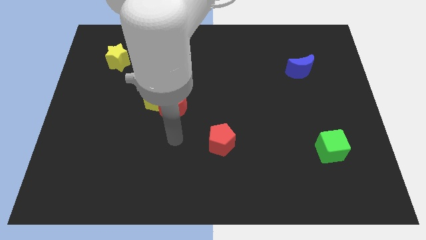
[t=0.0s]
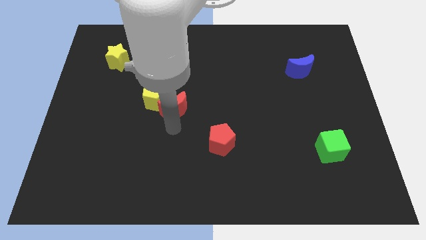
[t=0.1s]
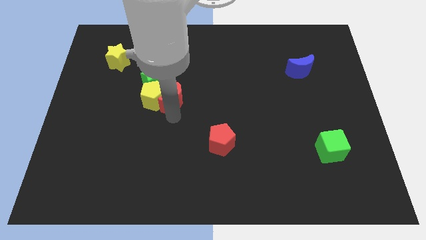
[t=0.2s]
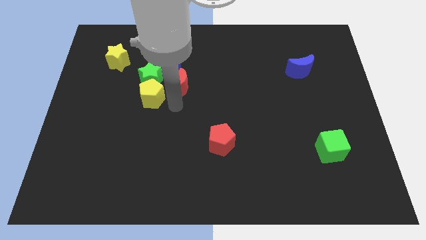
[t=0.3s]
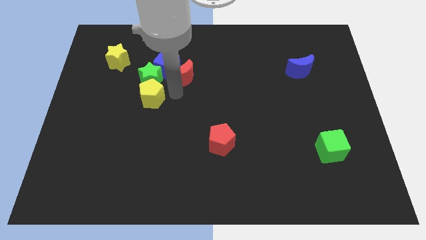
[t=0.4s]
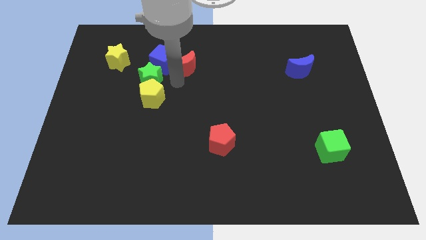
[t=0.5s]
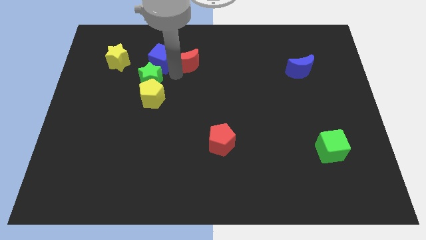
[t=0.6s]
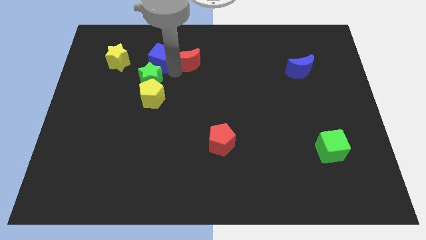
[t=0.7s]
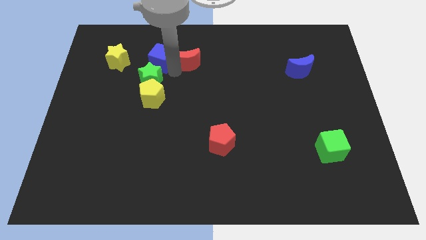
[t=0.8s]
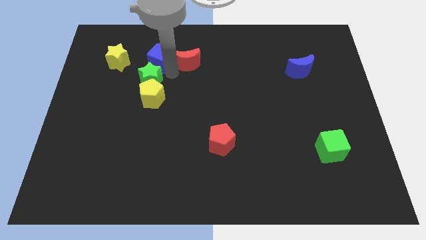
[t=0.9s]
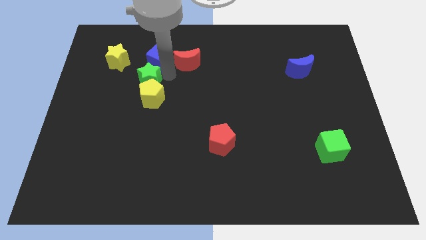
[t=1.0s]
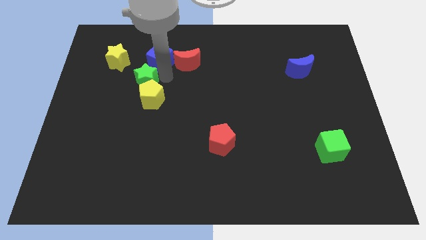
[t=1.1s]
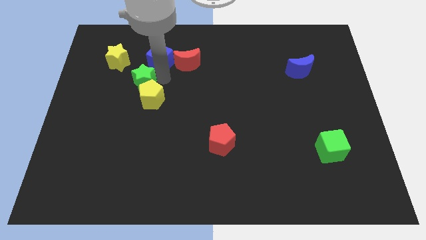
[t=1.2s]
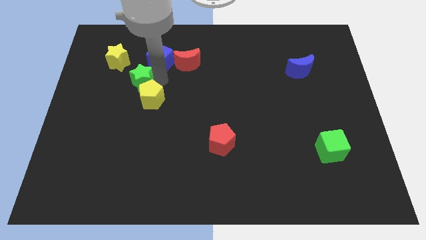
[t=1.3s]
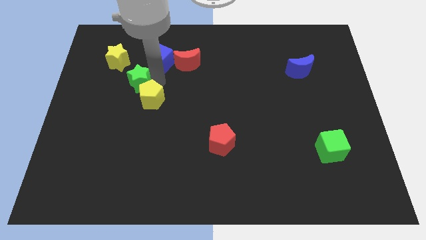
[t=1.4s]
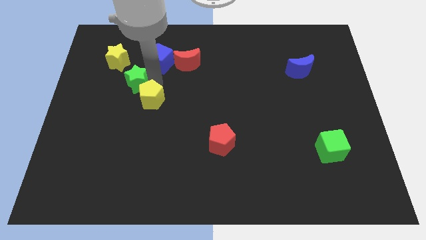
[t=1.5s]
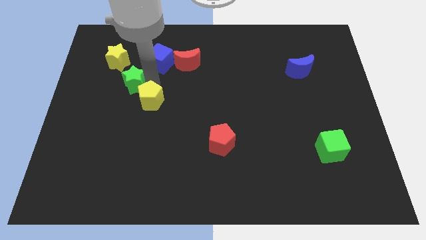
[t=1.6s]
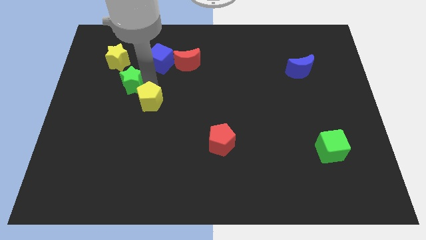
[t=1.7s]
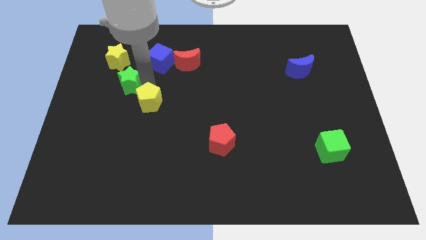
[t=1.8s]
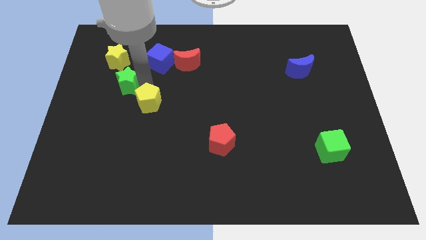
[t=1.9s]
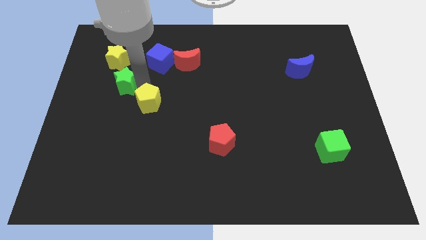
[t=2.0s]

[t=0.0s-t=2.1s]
pull the green star apart from the yellow pentagon, blue cube, and red moon

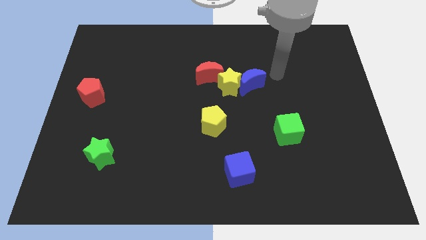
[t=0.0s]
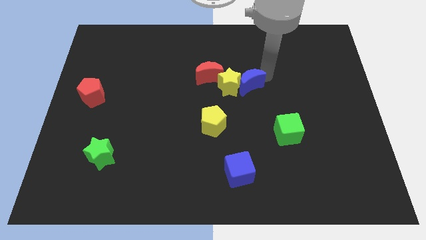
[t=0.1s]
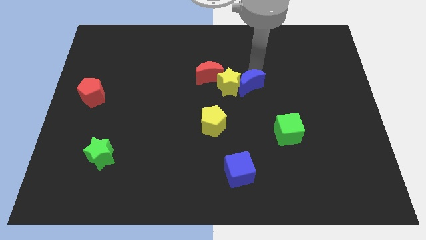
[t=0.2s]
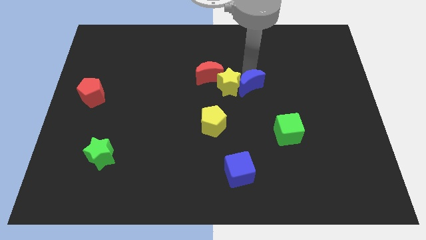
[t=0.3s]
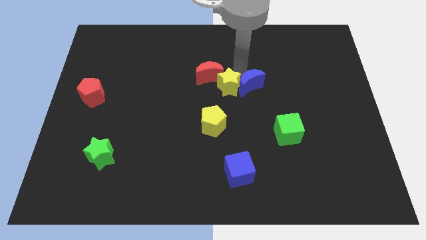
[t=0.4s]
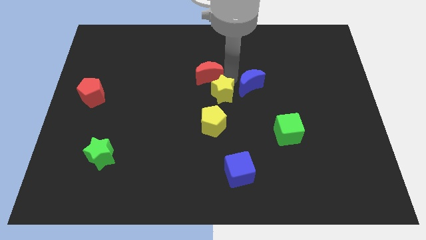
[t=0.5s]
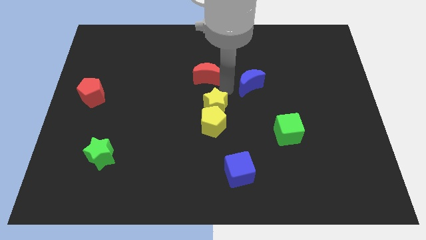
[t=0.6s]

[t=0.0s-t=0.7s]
move the blue moon away from the yellow star

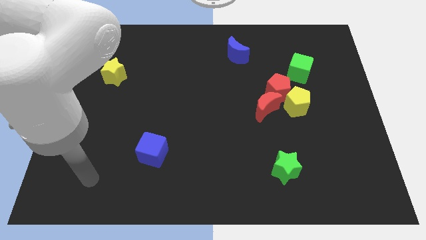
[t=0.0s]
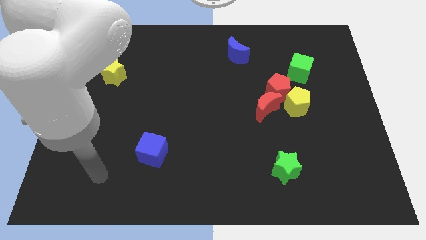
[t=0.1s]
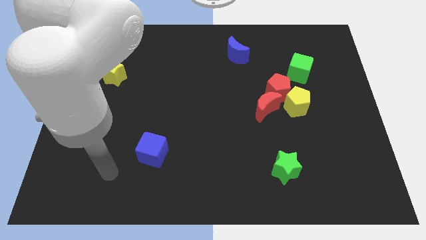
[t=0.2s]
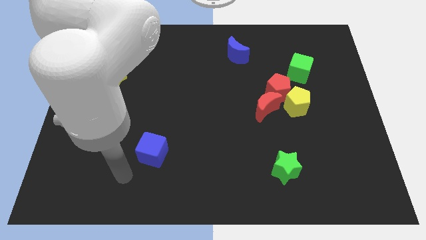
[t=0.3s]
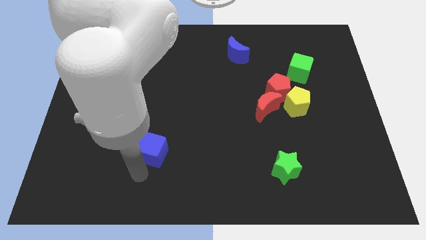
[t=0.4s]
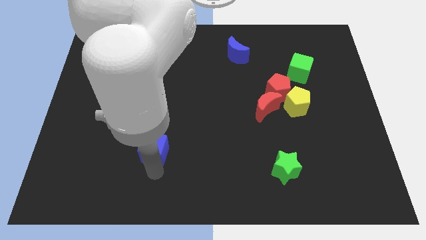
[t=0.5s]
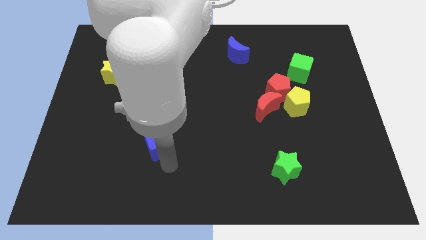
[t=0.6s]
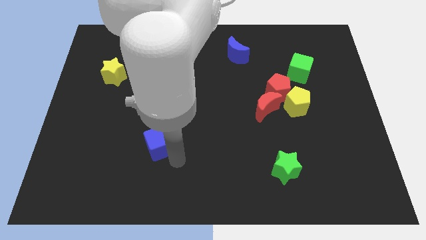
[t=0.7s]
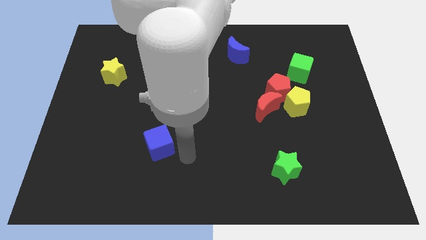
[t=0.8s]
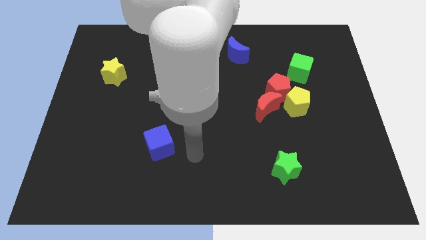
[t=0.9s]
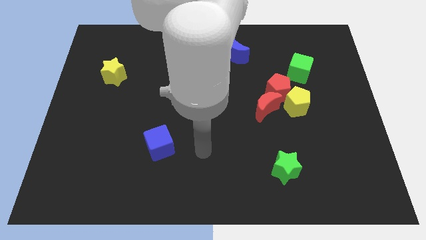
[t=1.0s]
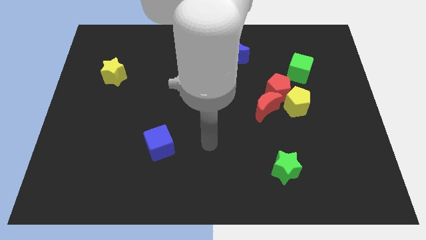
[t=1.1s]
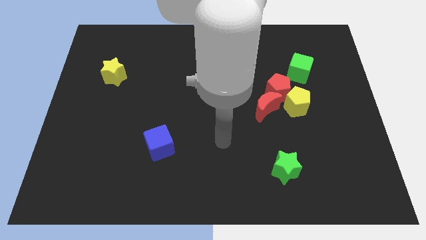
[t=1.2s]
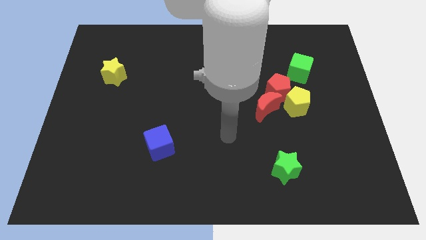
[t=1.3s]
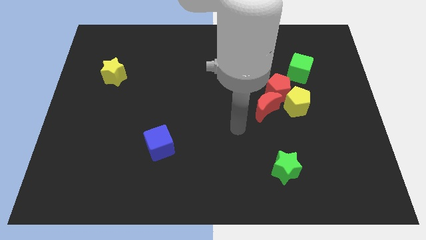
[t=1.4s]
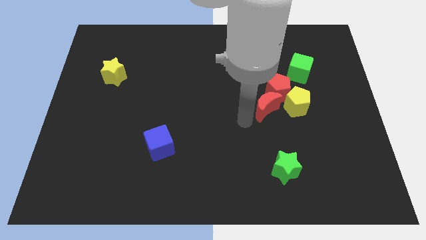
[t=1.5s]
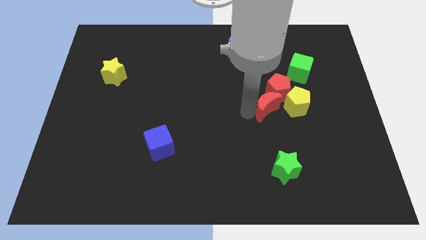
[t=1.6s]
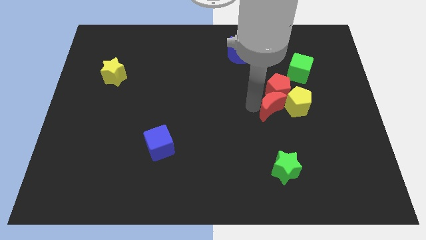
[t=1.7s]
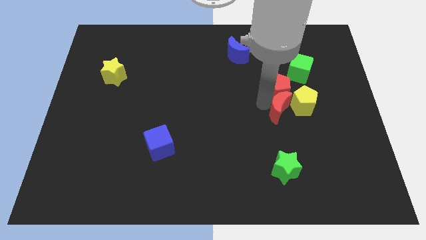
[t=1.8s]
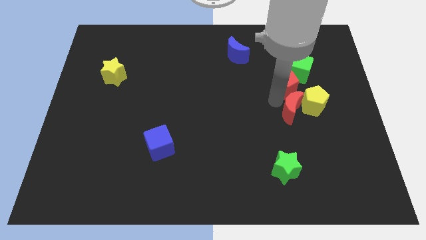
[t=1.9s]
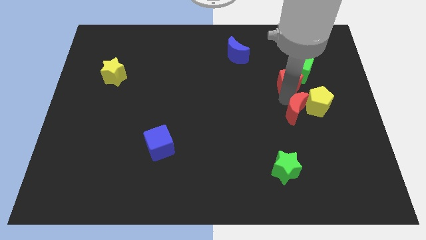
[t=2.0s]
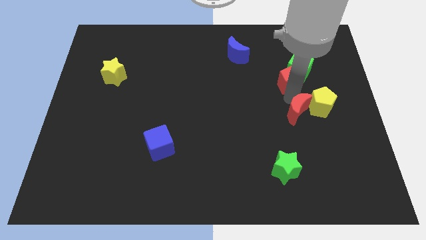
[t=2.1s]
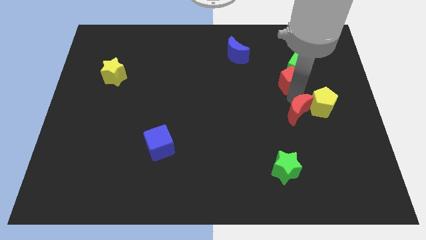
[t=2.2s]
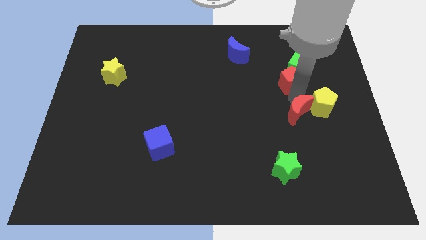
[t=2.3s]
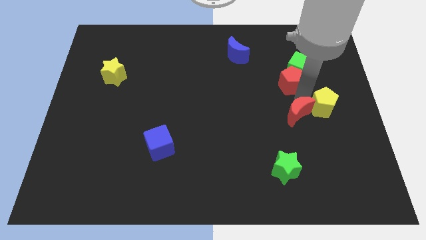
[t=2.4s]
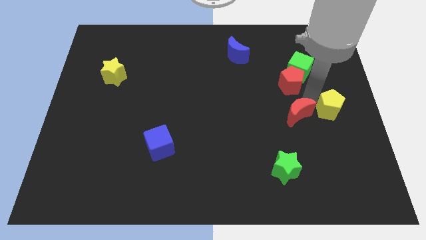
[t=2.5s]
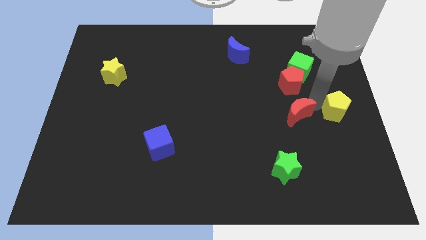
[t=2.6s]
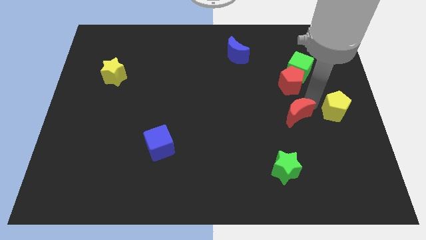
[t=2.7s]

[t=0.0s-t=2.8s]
separate the yellow pentagon from the red pentagon and red moon

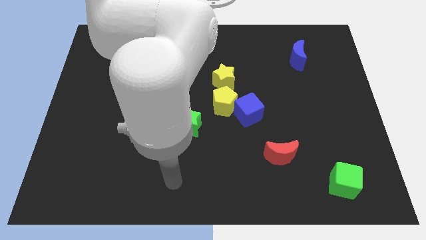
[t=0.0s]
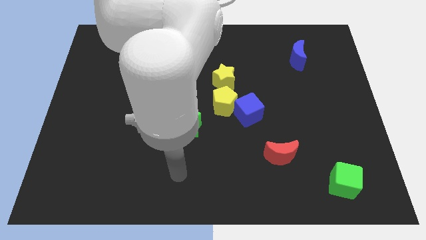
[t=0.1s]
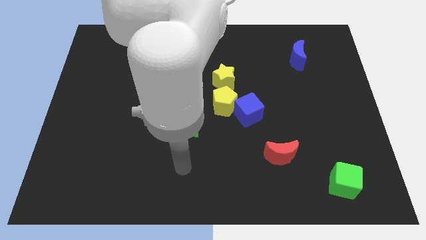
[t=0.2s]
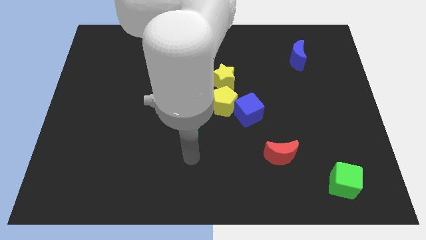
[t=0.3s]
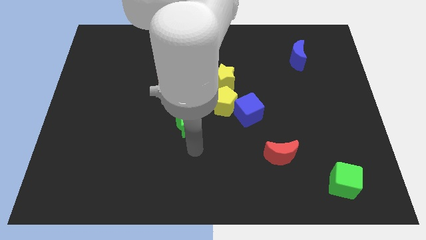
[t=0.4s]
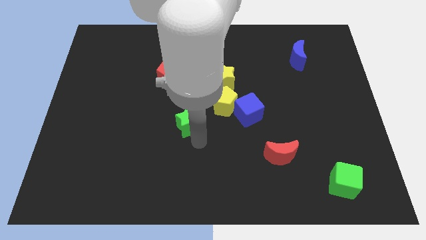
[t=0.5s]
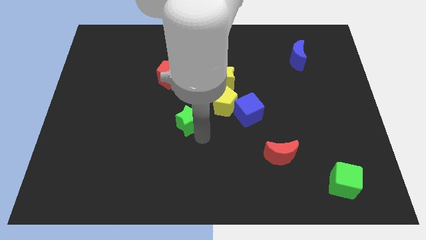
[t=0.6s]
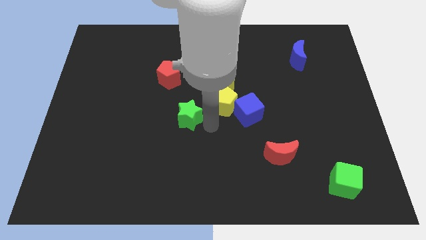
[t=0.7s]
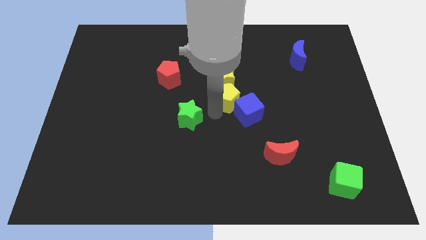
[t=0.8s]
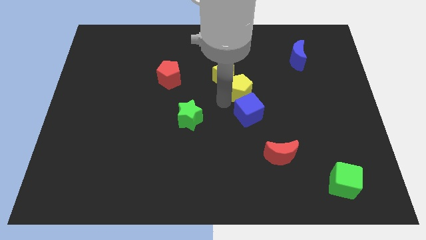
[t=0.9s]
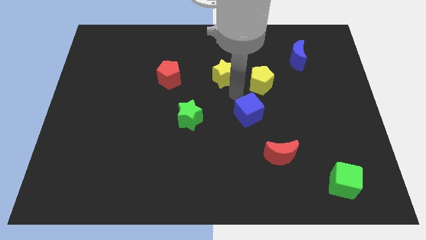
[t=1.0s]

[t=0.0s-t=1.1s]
separate the blue cube from the yellow pentagon

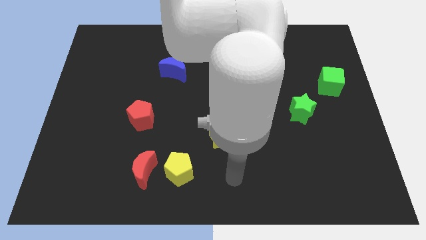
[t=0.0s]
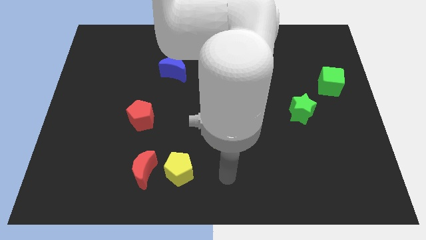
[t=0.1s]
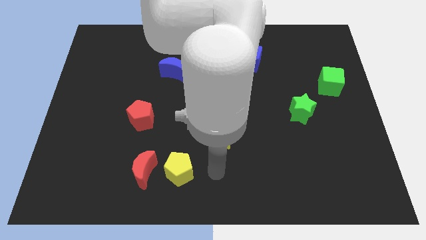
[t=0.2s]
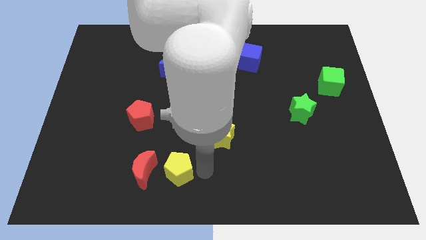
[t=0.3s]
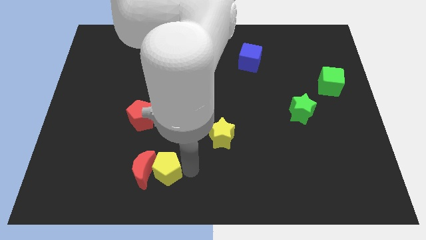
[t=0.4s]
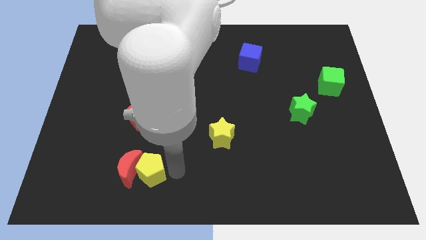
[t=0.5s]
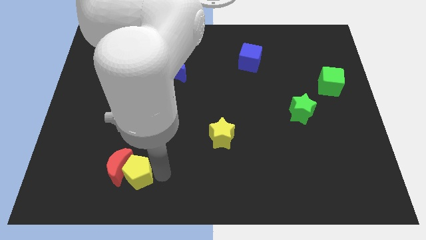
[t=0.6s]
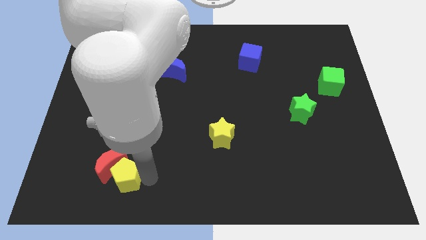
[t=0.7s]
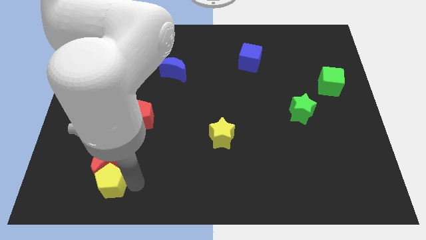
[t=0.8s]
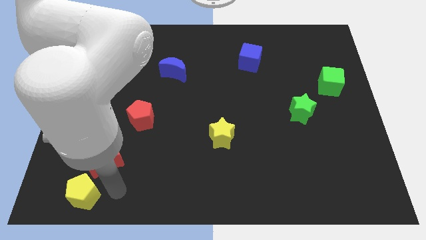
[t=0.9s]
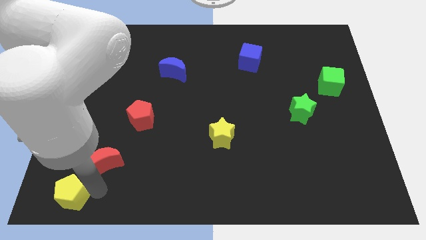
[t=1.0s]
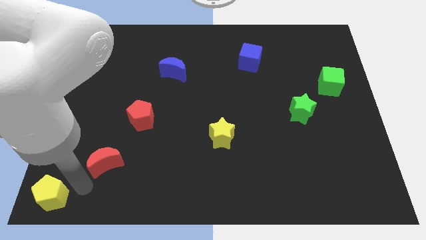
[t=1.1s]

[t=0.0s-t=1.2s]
separate the red moon from the yellow pentagon

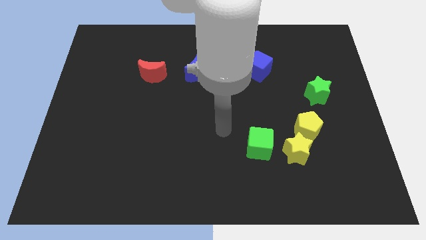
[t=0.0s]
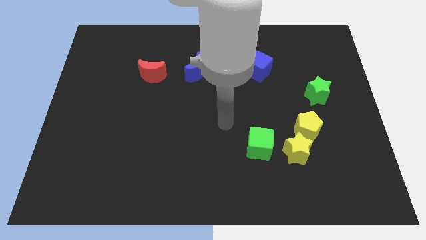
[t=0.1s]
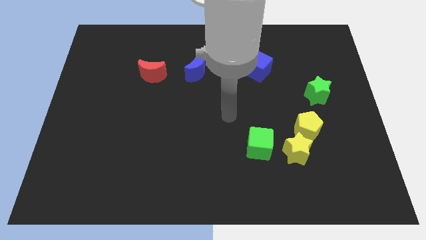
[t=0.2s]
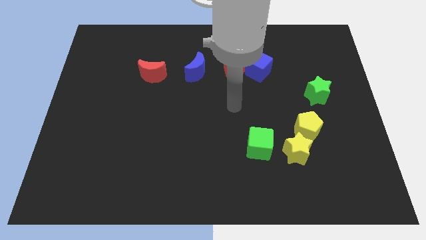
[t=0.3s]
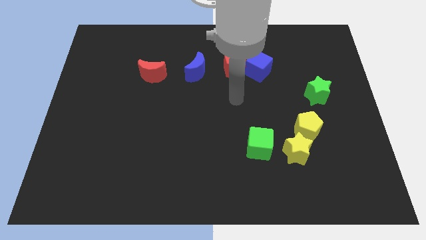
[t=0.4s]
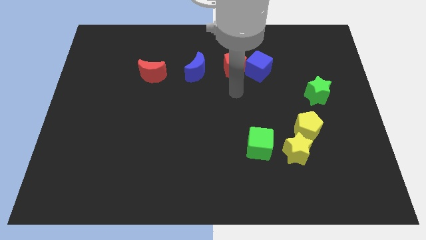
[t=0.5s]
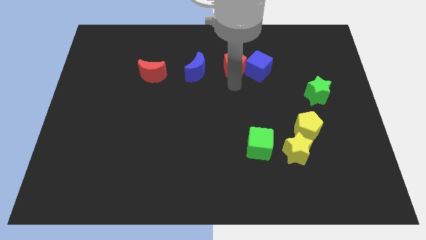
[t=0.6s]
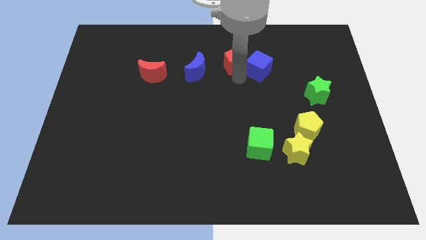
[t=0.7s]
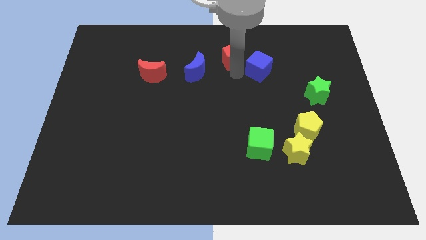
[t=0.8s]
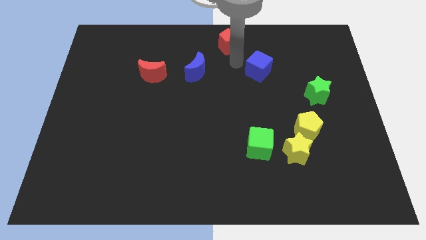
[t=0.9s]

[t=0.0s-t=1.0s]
move the blue cube away from the red pentagon

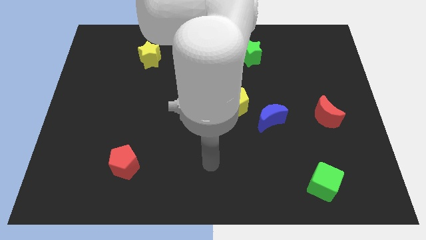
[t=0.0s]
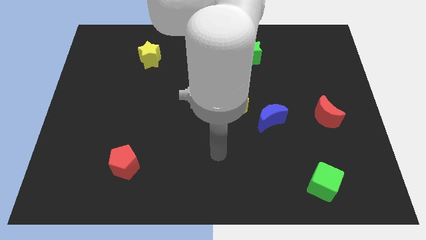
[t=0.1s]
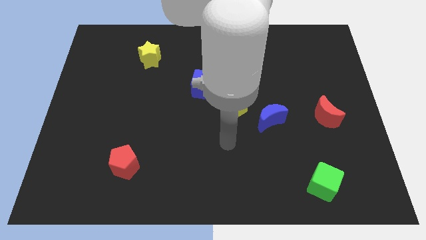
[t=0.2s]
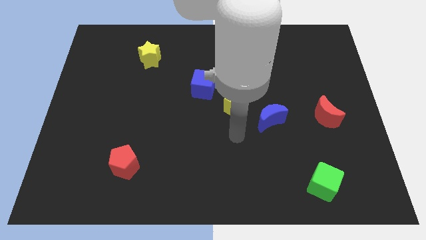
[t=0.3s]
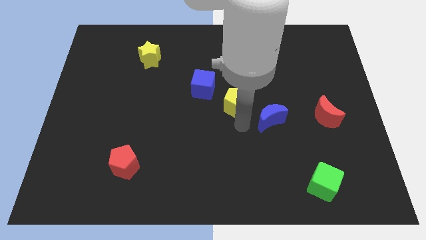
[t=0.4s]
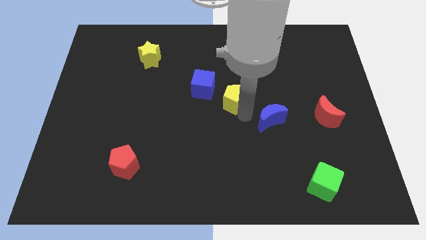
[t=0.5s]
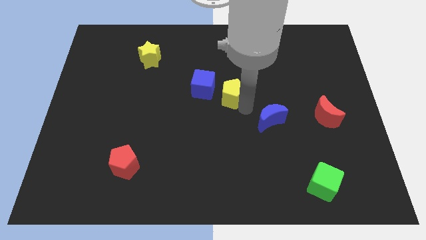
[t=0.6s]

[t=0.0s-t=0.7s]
separate the blue moon from the yellow pentagon
